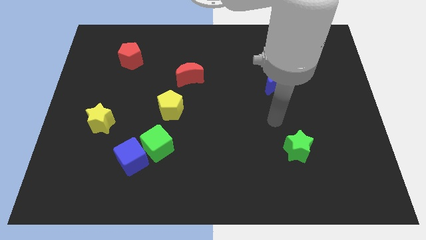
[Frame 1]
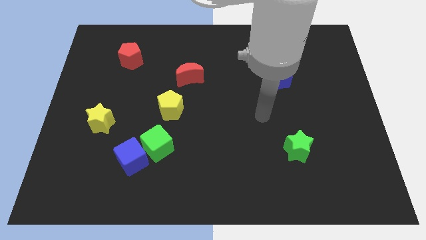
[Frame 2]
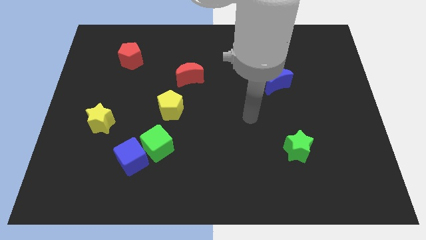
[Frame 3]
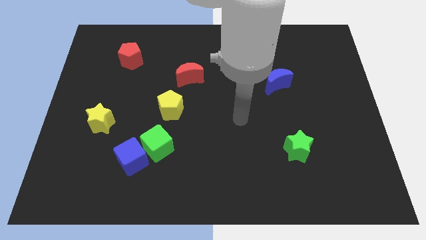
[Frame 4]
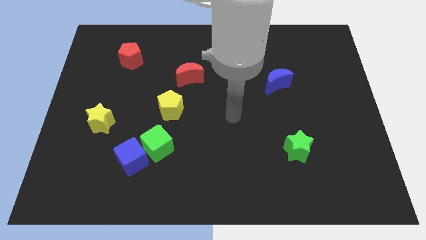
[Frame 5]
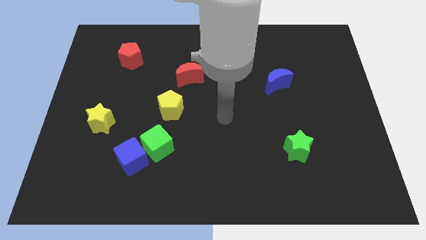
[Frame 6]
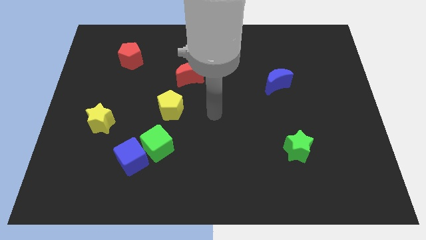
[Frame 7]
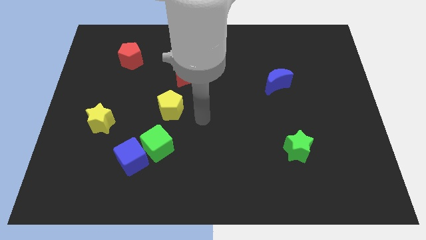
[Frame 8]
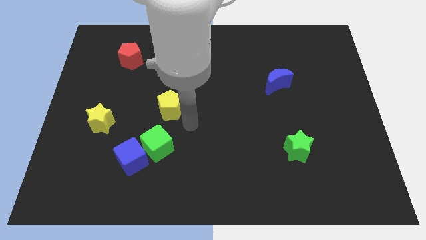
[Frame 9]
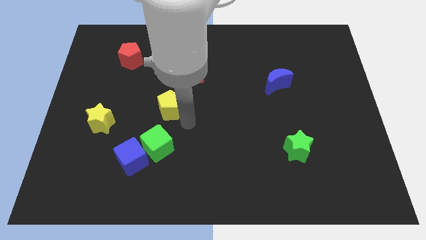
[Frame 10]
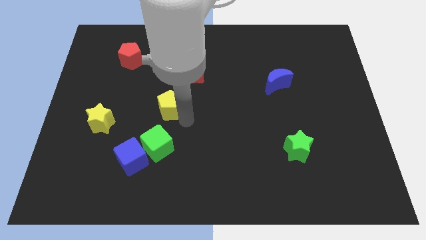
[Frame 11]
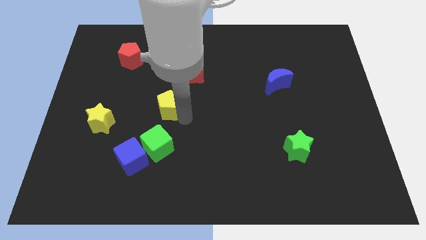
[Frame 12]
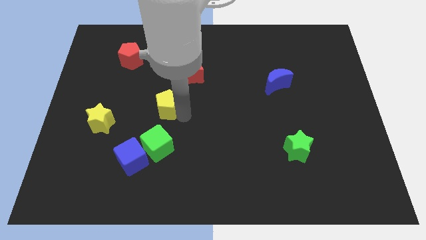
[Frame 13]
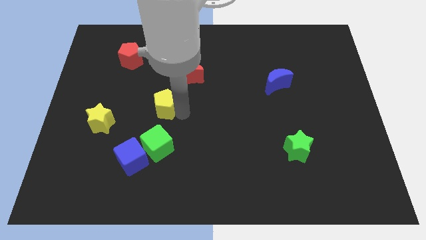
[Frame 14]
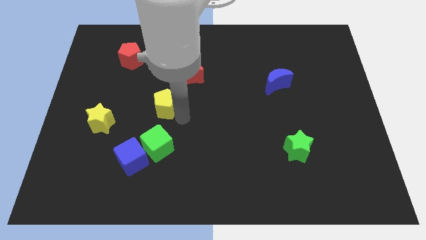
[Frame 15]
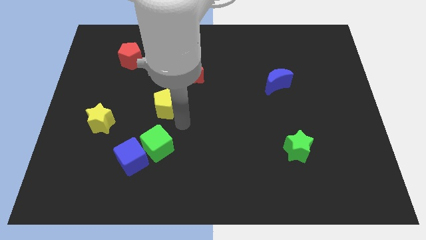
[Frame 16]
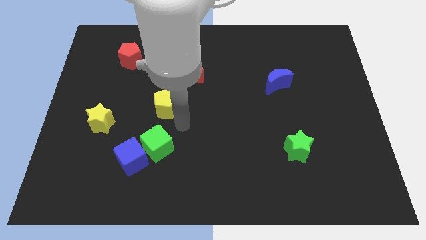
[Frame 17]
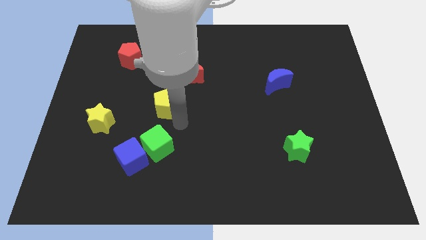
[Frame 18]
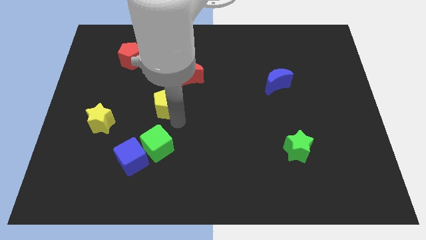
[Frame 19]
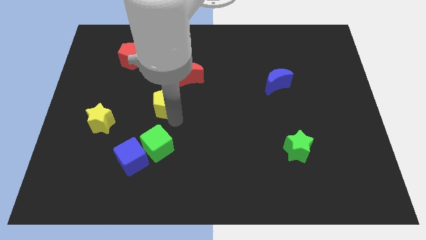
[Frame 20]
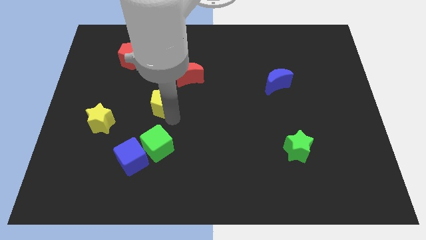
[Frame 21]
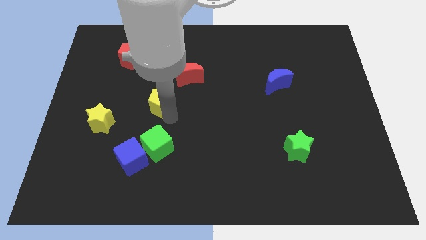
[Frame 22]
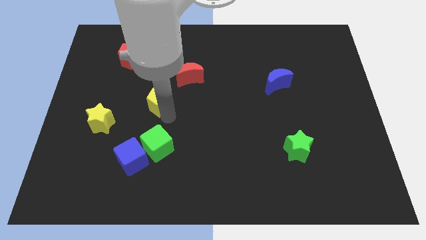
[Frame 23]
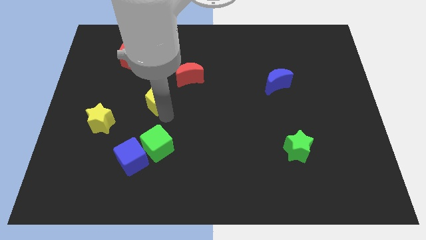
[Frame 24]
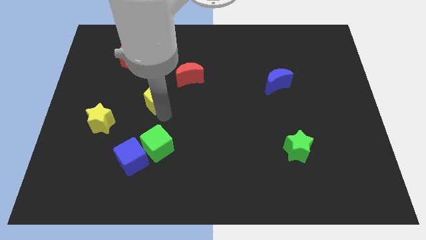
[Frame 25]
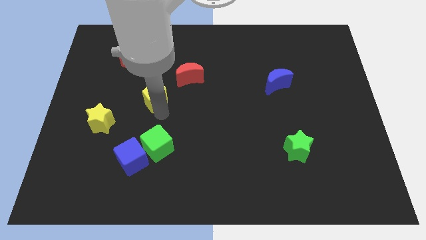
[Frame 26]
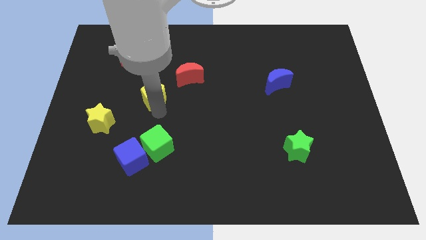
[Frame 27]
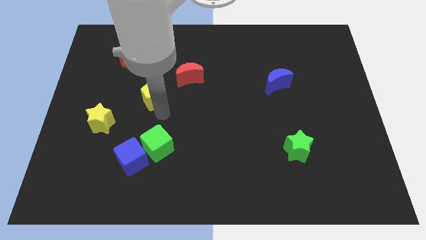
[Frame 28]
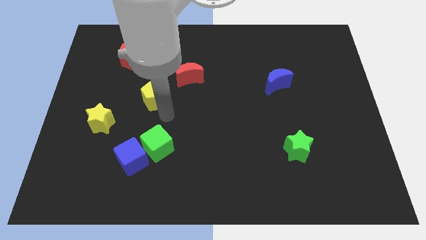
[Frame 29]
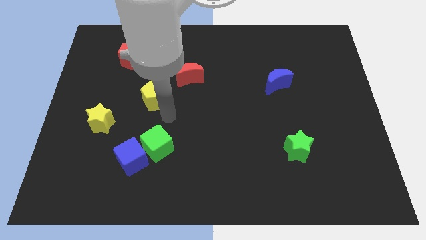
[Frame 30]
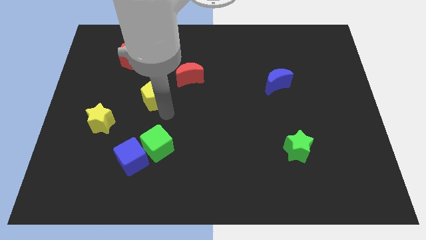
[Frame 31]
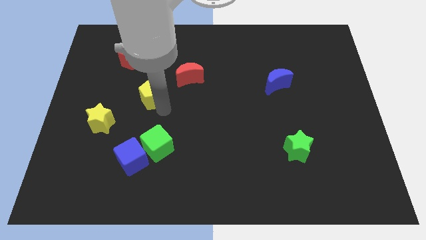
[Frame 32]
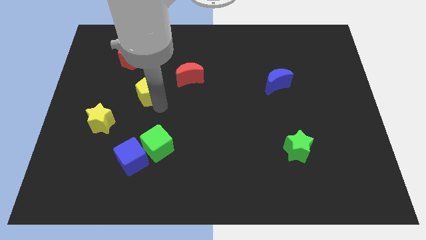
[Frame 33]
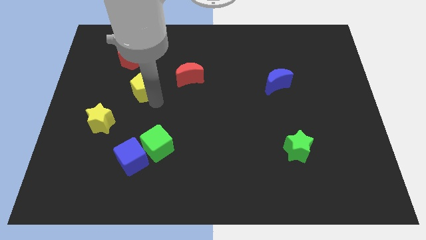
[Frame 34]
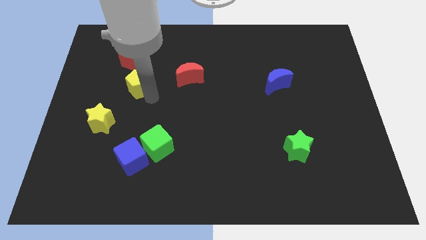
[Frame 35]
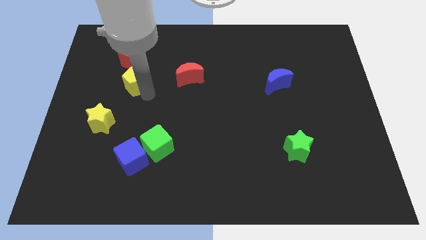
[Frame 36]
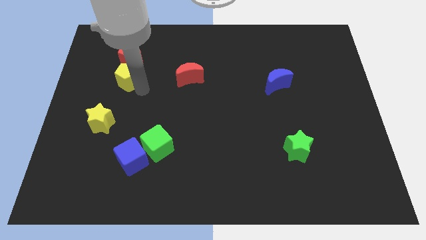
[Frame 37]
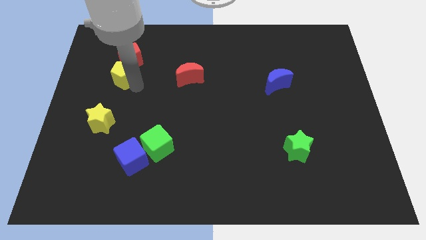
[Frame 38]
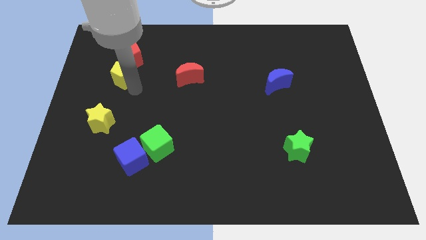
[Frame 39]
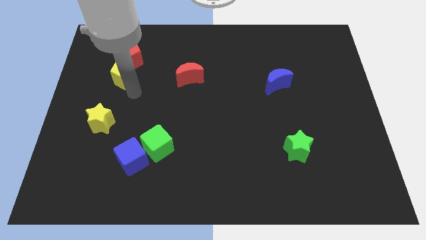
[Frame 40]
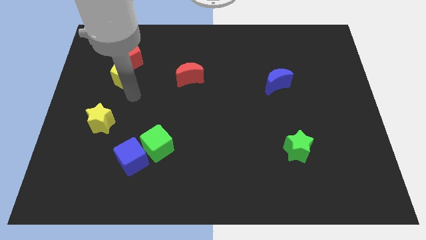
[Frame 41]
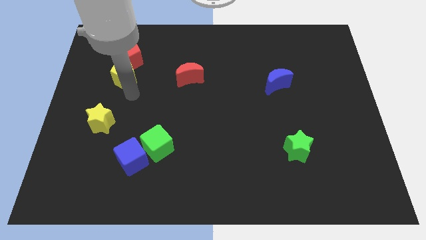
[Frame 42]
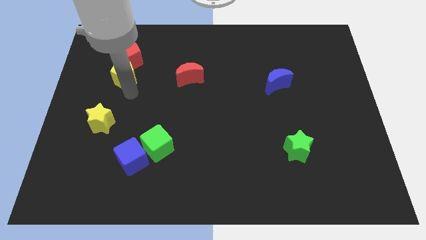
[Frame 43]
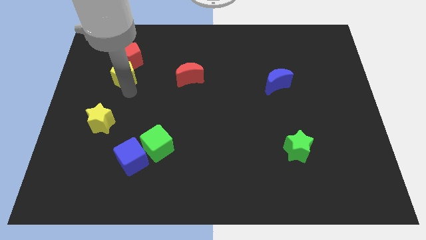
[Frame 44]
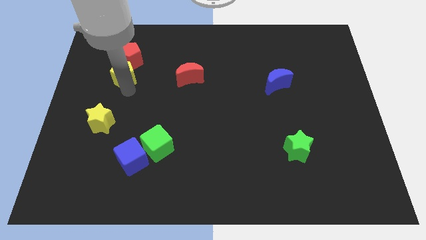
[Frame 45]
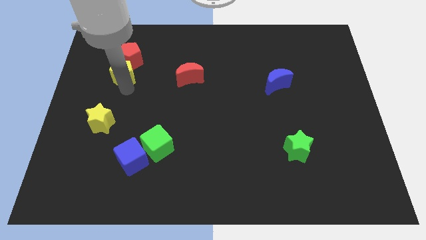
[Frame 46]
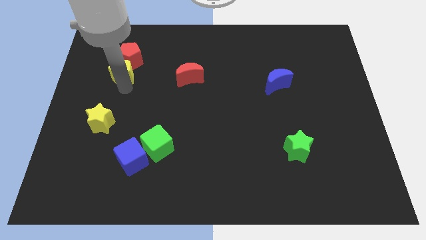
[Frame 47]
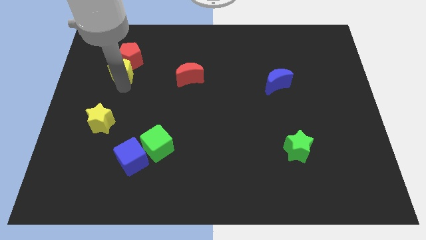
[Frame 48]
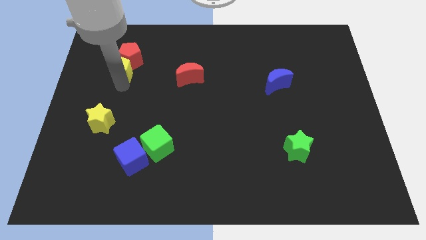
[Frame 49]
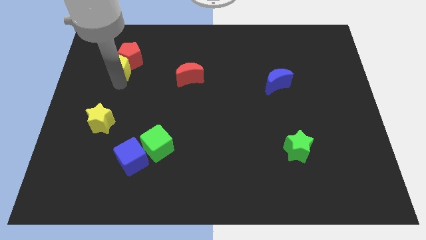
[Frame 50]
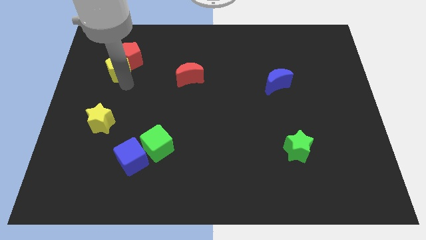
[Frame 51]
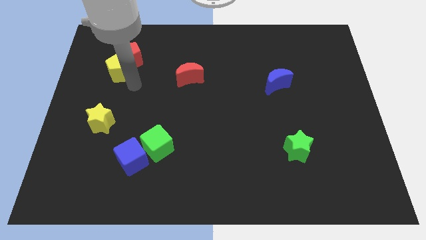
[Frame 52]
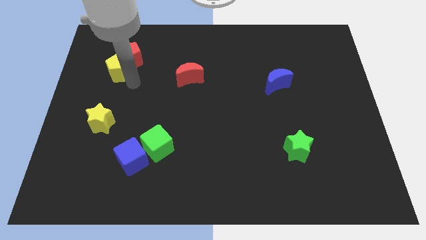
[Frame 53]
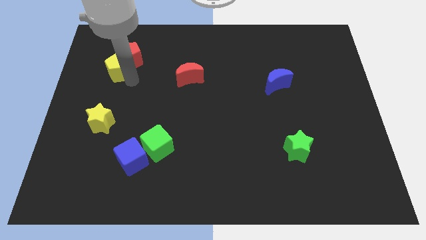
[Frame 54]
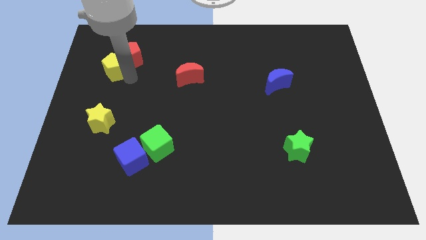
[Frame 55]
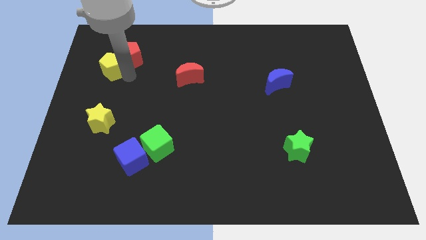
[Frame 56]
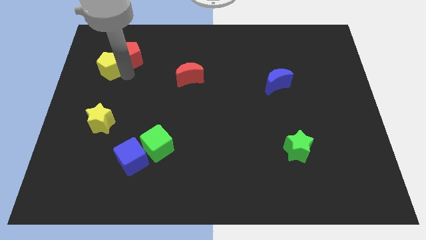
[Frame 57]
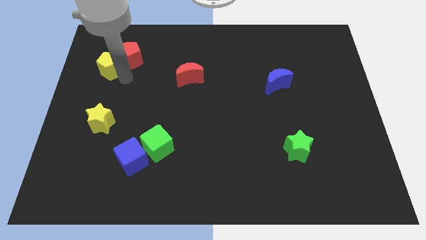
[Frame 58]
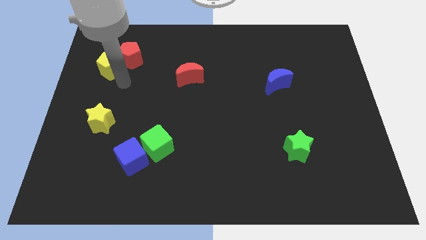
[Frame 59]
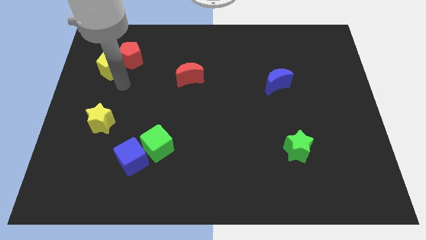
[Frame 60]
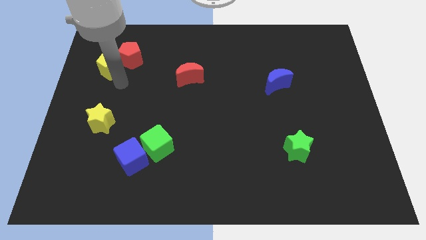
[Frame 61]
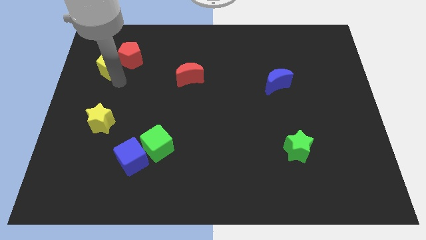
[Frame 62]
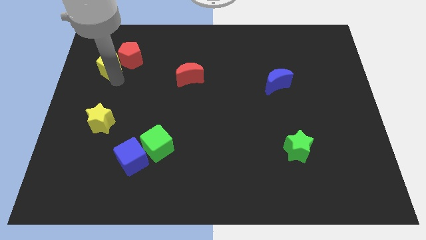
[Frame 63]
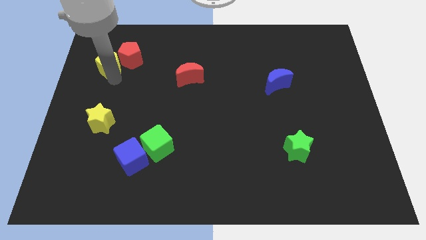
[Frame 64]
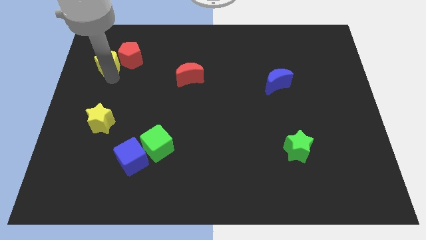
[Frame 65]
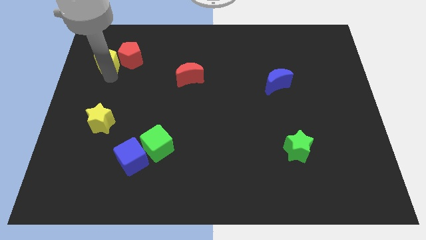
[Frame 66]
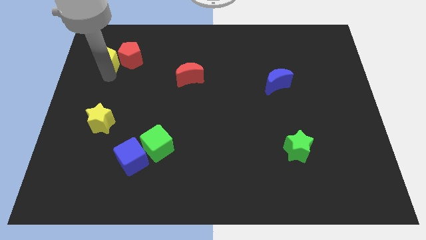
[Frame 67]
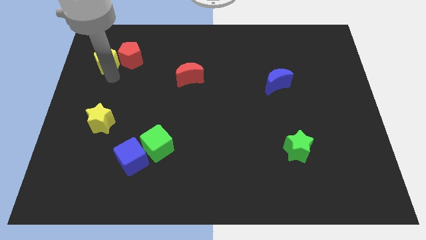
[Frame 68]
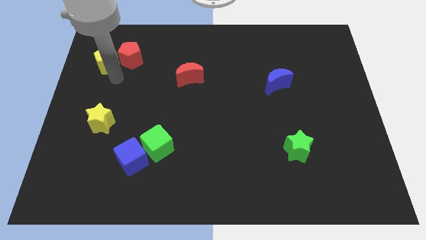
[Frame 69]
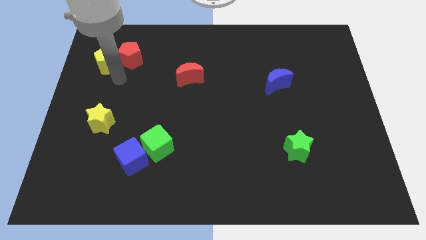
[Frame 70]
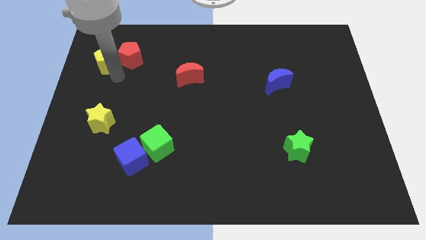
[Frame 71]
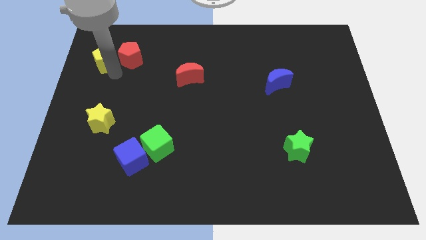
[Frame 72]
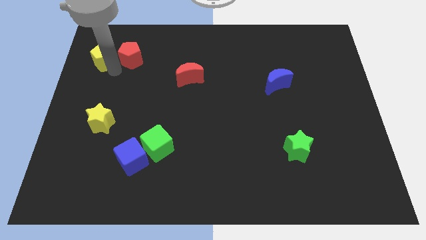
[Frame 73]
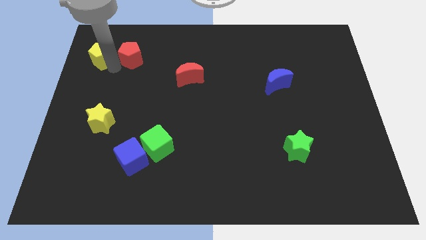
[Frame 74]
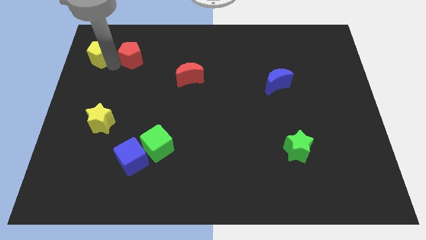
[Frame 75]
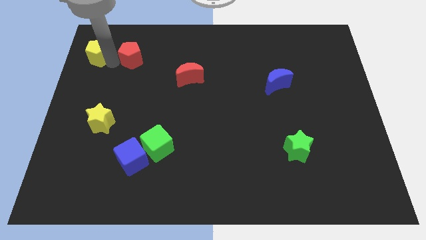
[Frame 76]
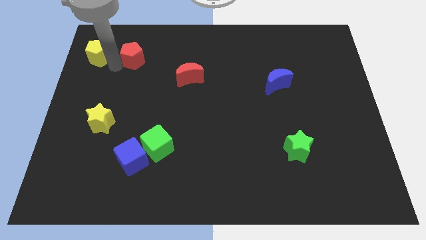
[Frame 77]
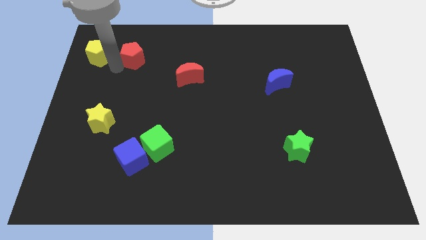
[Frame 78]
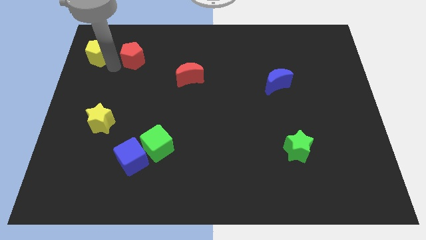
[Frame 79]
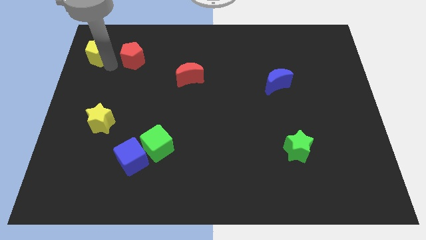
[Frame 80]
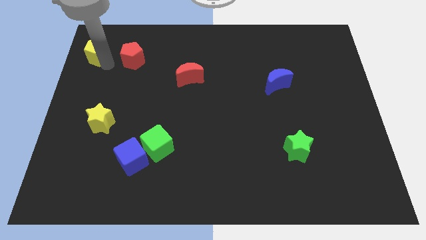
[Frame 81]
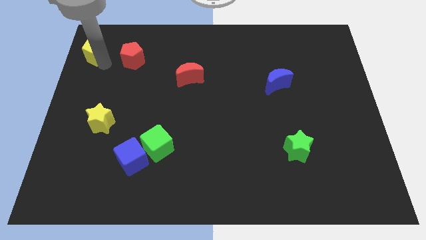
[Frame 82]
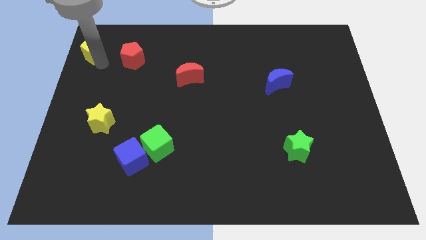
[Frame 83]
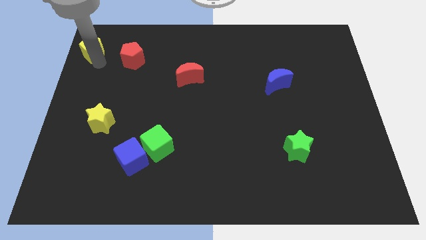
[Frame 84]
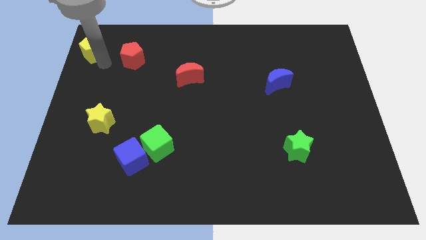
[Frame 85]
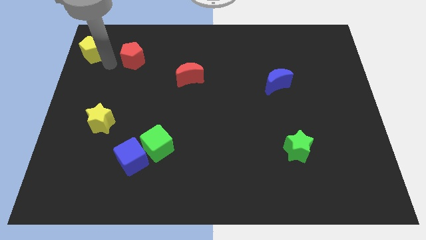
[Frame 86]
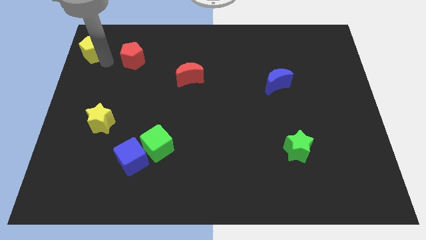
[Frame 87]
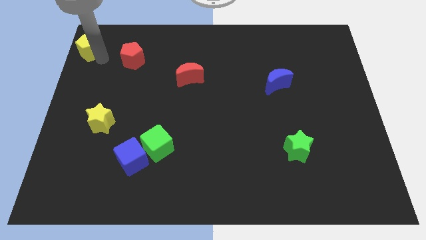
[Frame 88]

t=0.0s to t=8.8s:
slide the yellow pentagon to the top left of the board
